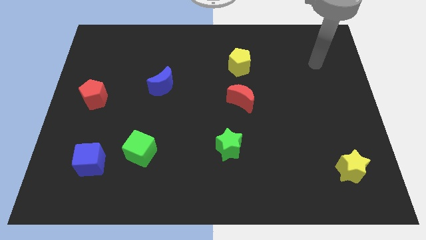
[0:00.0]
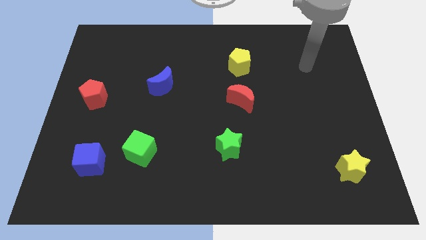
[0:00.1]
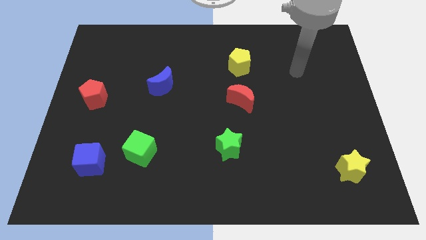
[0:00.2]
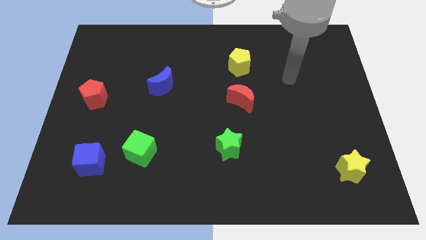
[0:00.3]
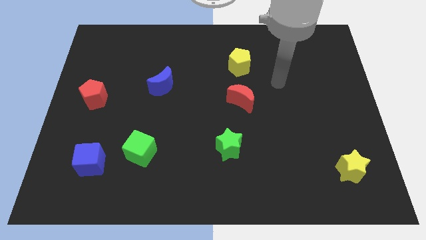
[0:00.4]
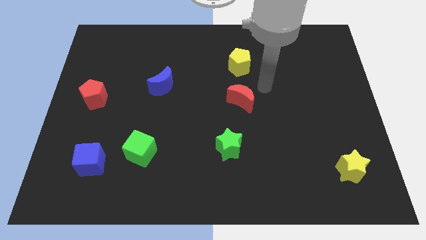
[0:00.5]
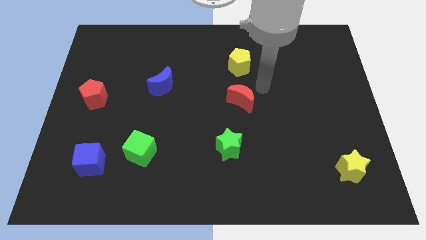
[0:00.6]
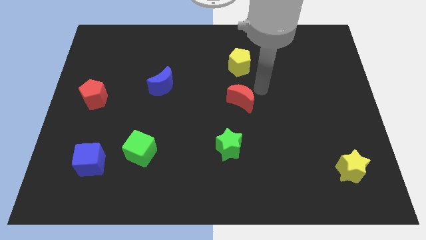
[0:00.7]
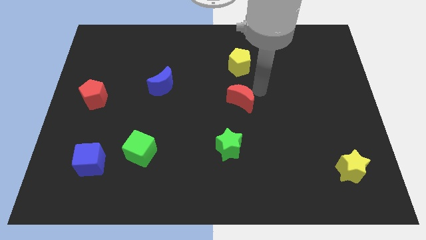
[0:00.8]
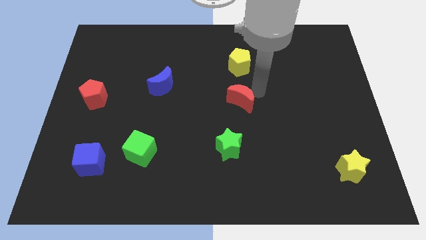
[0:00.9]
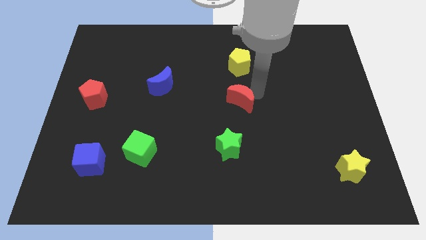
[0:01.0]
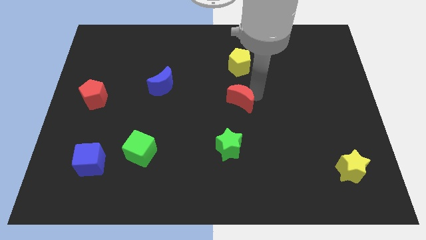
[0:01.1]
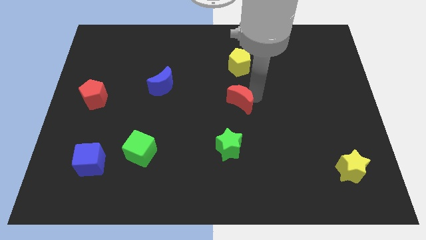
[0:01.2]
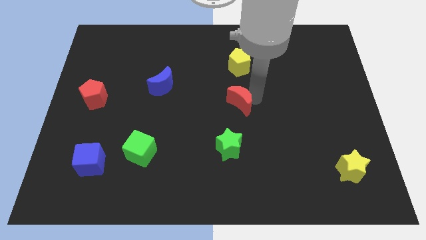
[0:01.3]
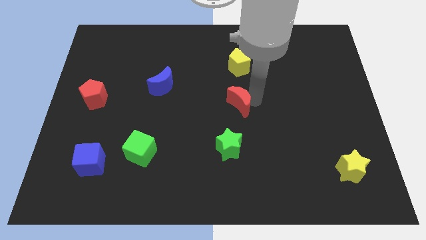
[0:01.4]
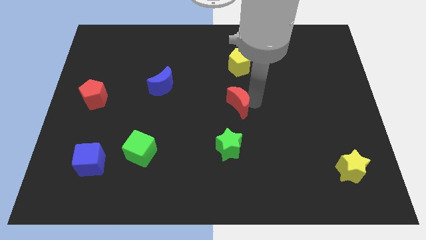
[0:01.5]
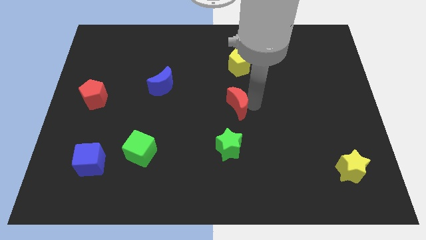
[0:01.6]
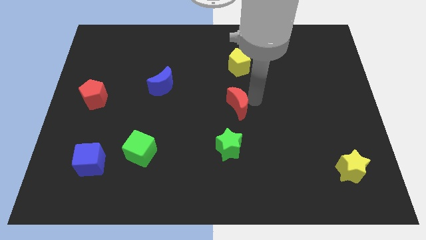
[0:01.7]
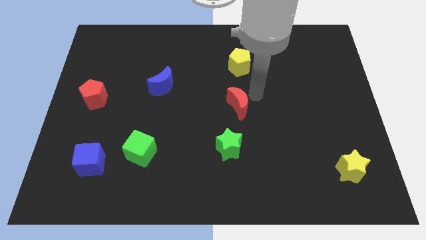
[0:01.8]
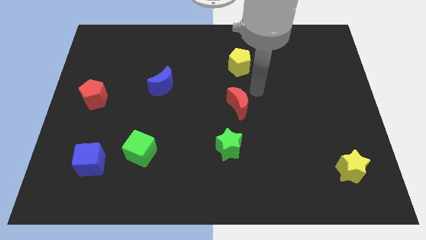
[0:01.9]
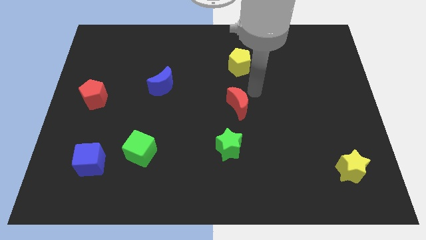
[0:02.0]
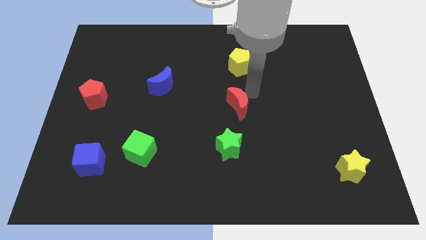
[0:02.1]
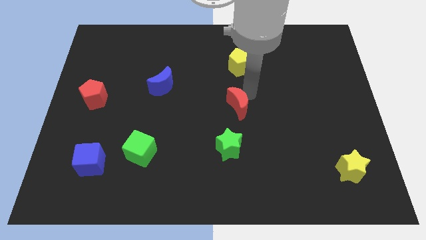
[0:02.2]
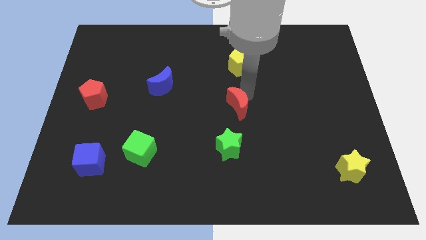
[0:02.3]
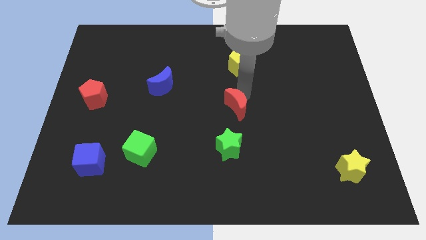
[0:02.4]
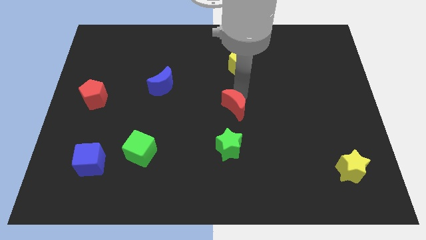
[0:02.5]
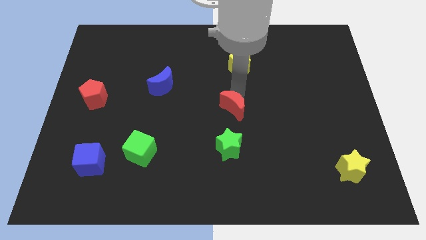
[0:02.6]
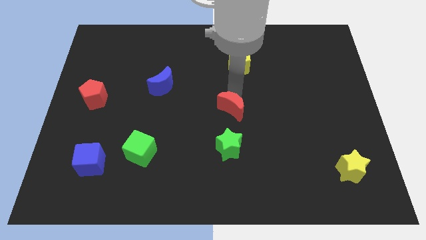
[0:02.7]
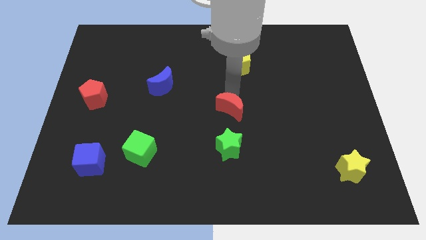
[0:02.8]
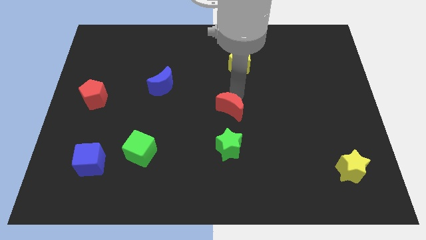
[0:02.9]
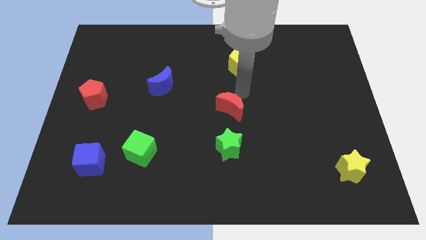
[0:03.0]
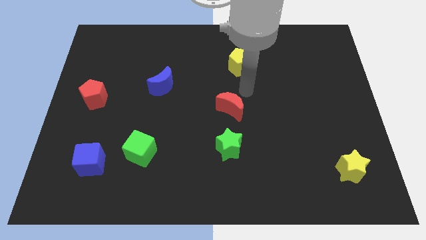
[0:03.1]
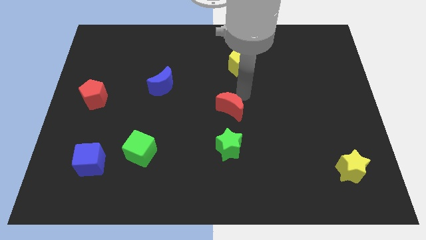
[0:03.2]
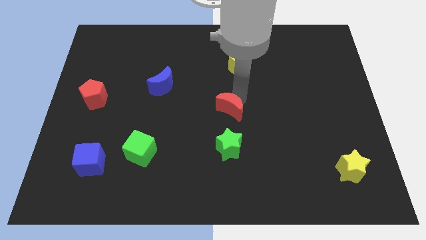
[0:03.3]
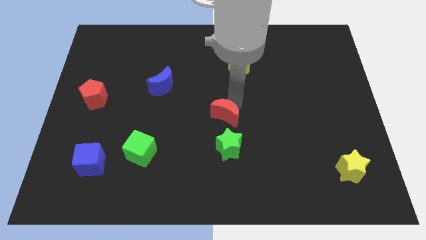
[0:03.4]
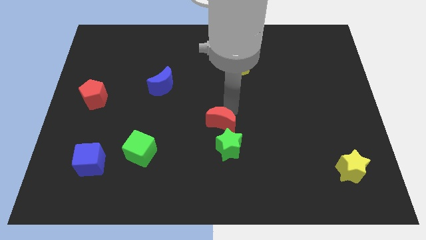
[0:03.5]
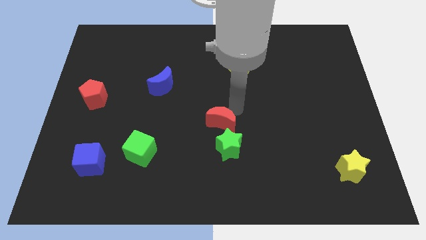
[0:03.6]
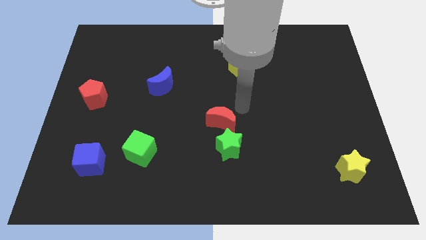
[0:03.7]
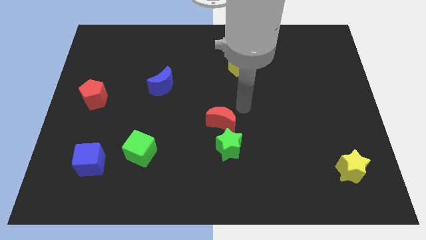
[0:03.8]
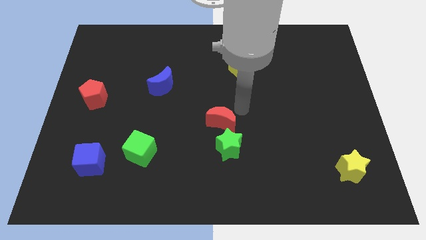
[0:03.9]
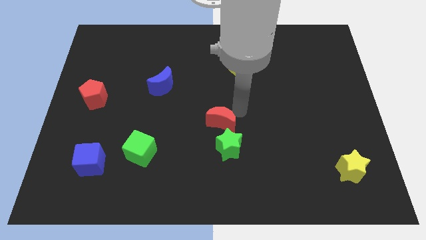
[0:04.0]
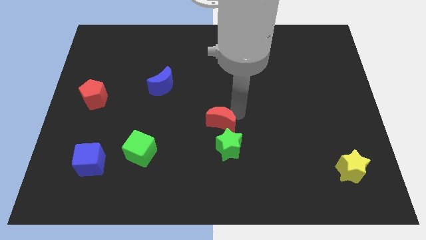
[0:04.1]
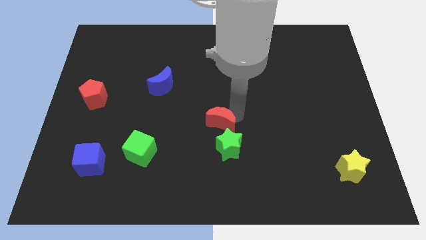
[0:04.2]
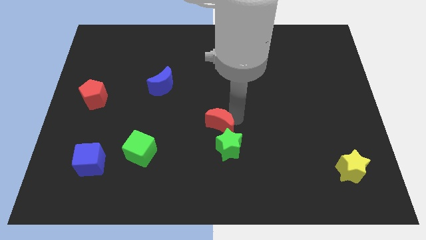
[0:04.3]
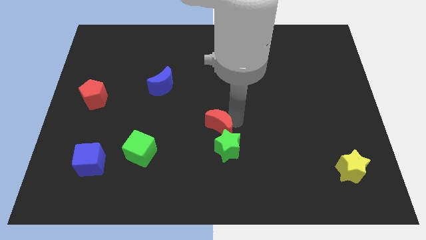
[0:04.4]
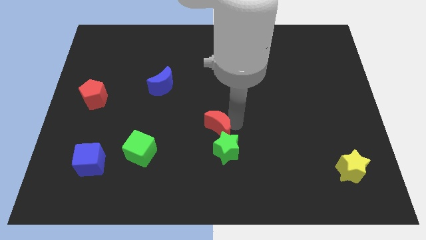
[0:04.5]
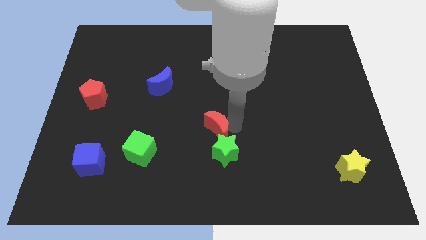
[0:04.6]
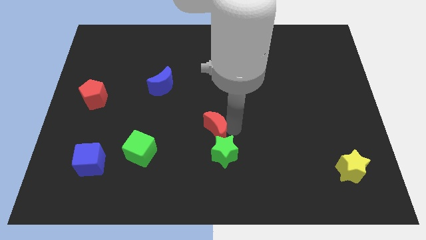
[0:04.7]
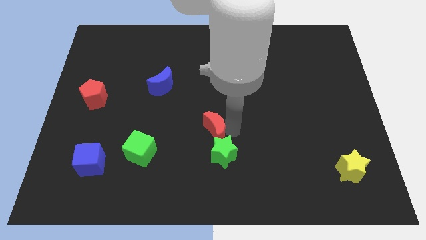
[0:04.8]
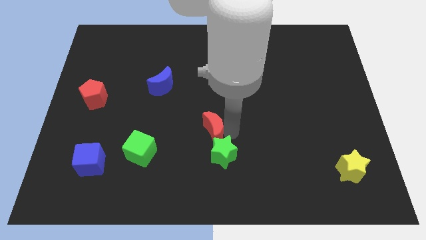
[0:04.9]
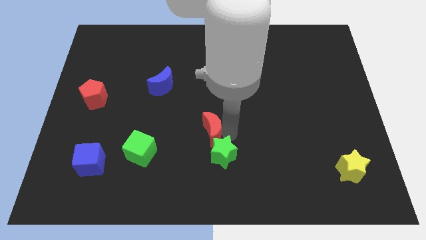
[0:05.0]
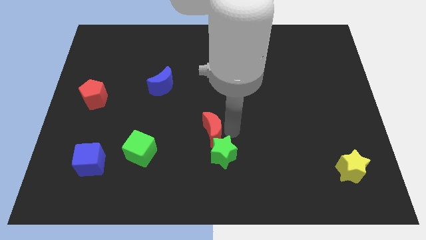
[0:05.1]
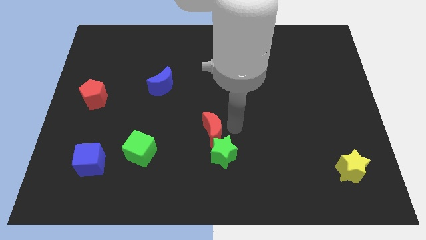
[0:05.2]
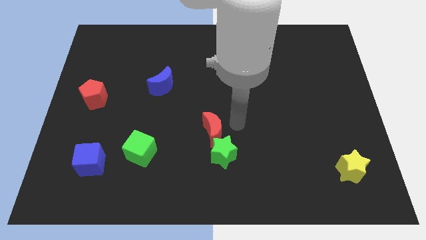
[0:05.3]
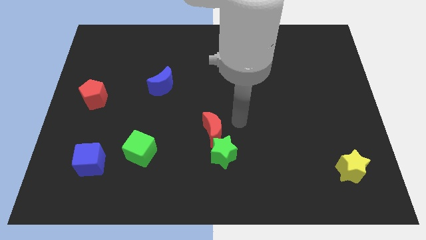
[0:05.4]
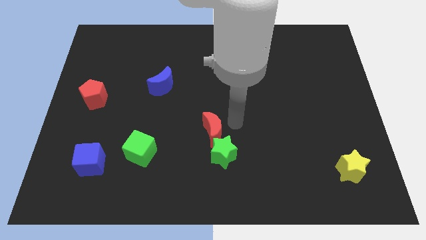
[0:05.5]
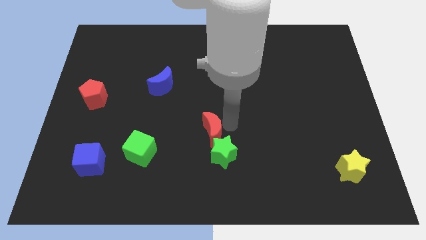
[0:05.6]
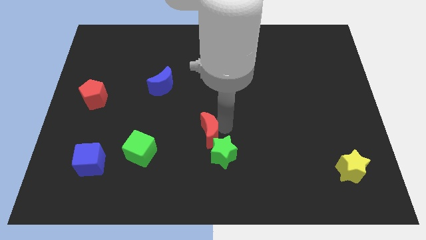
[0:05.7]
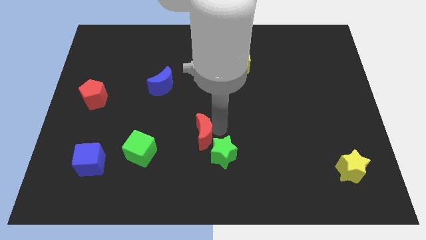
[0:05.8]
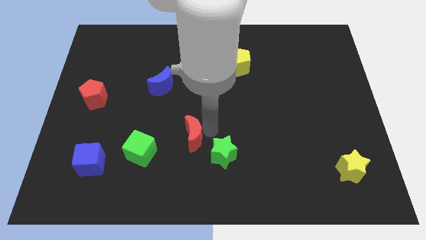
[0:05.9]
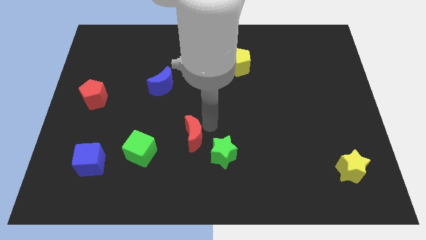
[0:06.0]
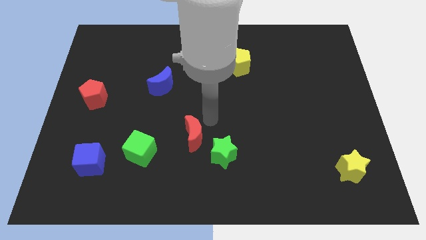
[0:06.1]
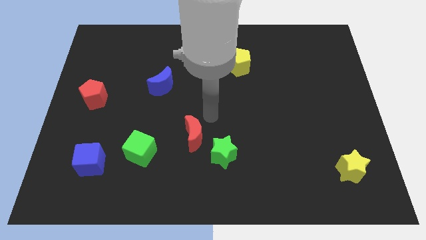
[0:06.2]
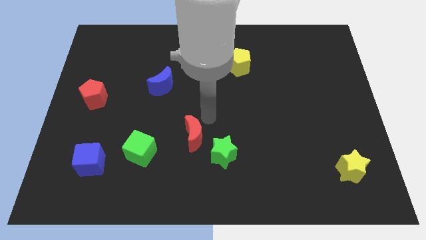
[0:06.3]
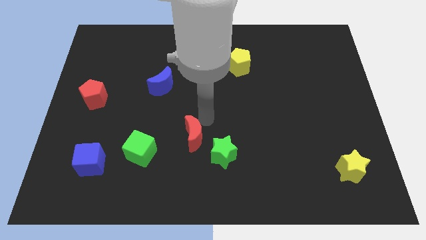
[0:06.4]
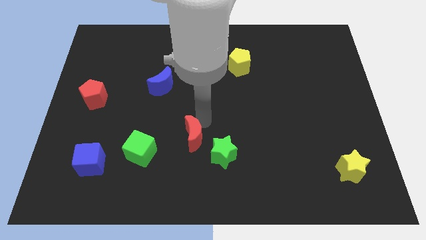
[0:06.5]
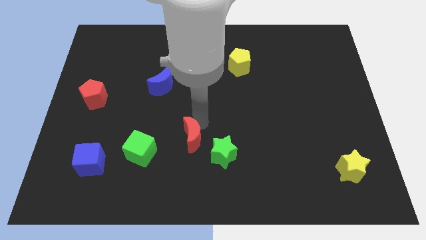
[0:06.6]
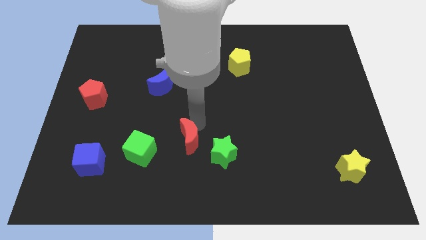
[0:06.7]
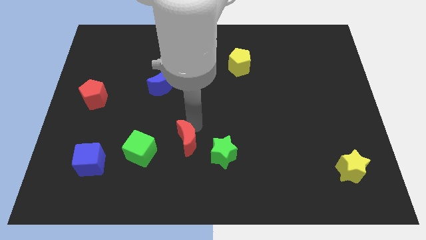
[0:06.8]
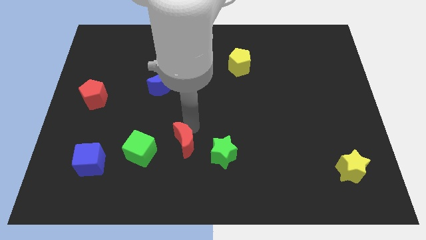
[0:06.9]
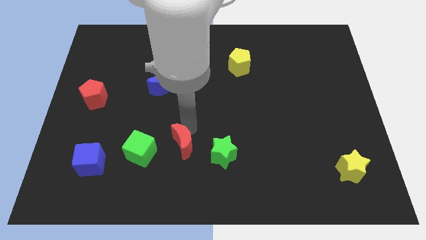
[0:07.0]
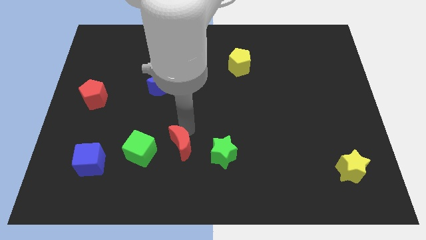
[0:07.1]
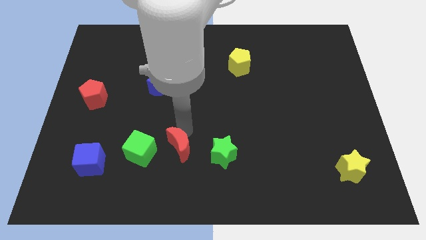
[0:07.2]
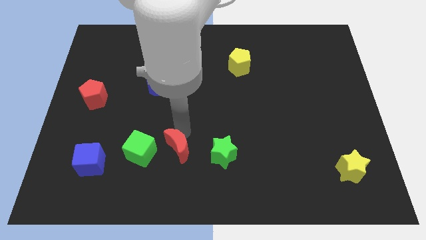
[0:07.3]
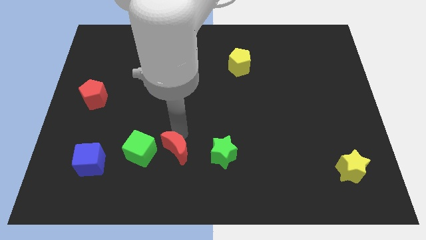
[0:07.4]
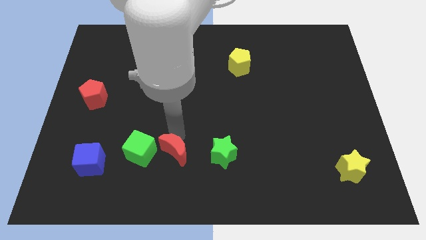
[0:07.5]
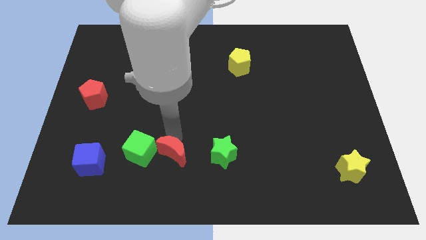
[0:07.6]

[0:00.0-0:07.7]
move the red moon to the bottom right side of the green cube
